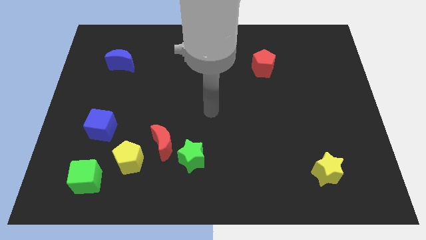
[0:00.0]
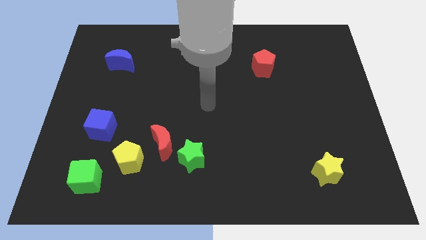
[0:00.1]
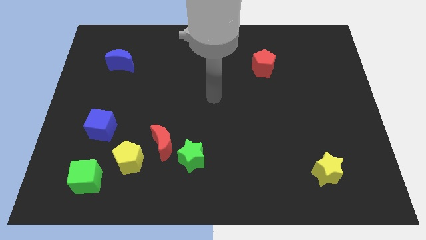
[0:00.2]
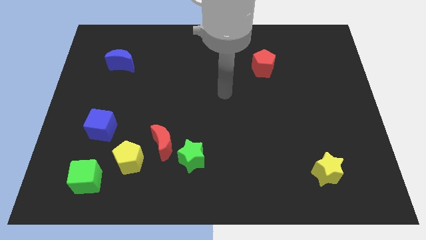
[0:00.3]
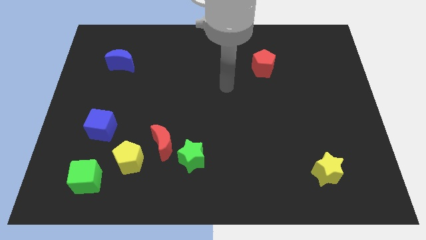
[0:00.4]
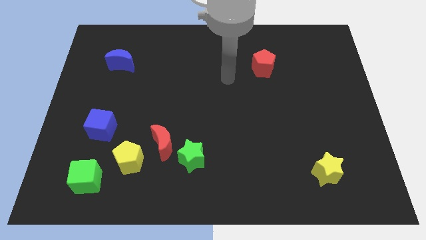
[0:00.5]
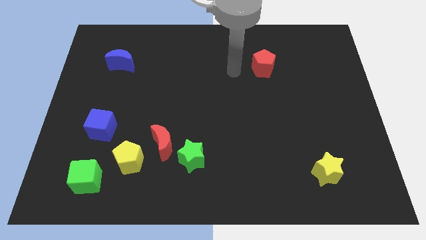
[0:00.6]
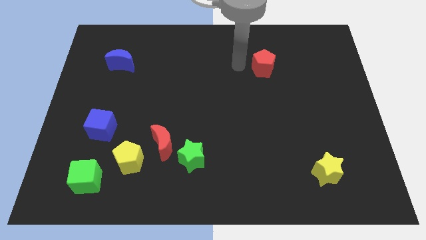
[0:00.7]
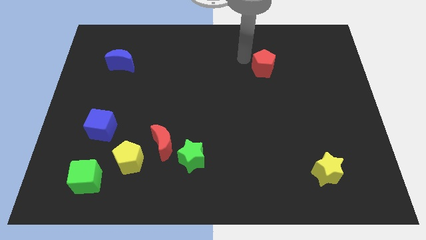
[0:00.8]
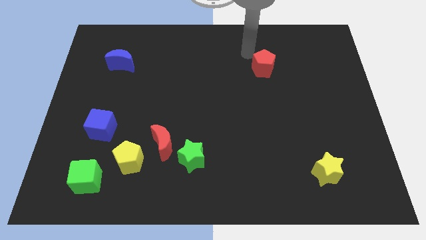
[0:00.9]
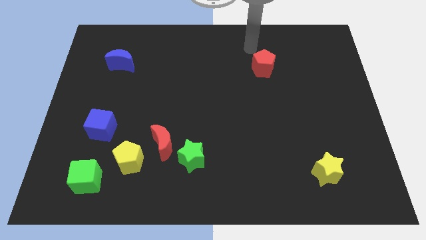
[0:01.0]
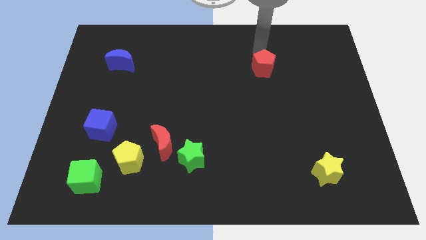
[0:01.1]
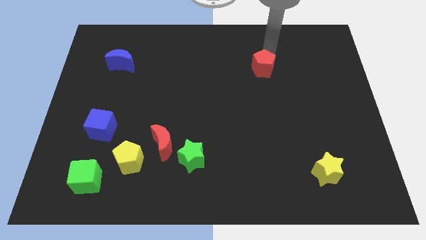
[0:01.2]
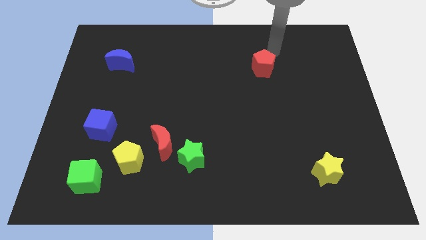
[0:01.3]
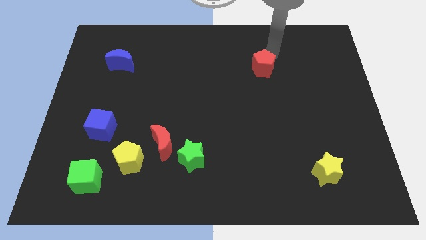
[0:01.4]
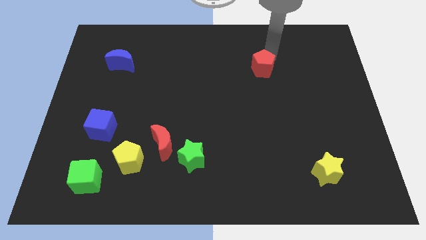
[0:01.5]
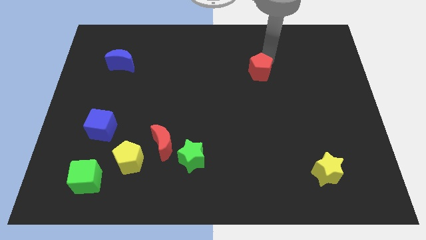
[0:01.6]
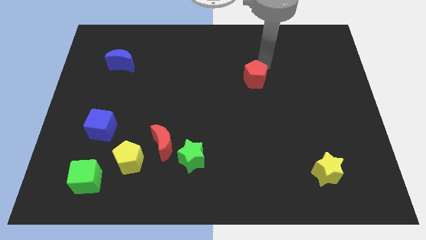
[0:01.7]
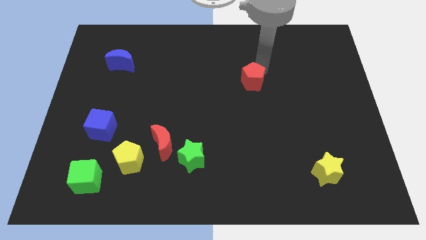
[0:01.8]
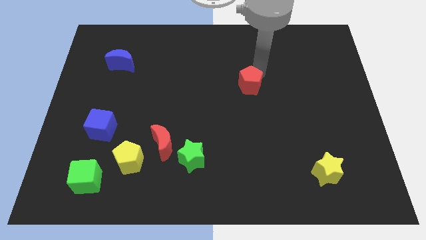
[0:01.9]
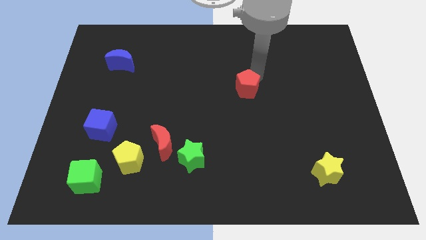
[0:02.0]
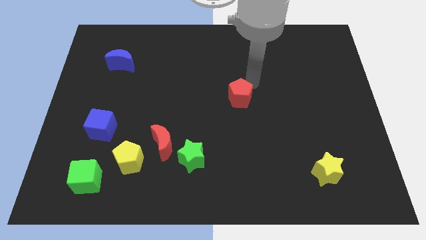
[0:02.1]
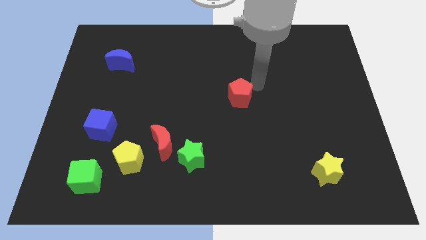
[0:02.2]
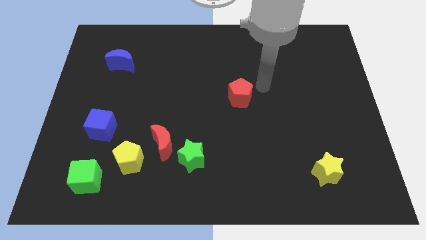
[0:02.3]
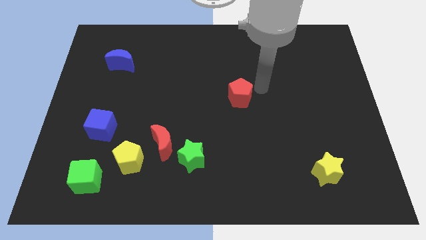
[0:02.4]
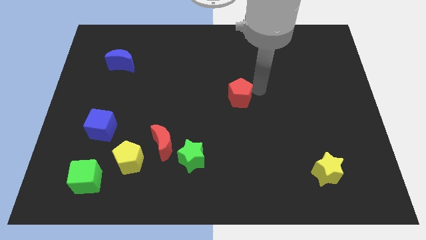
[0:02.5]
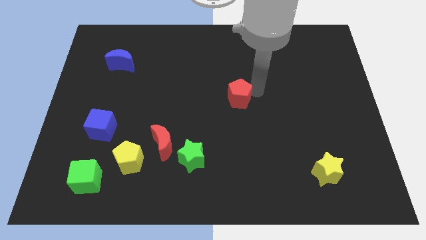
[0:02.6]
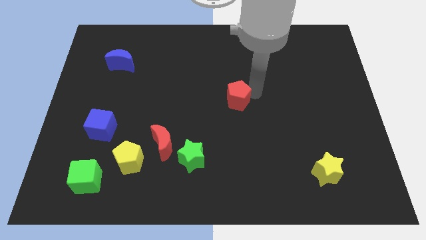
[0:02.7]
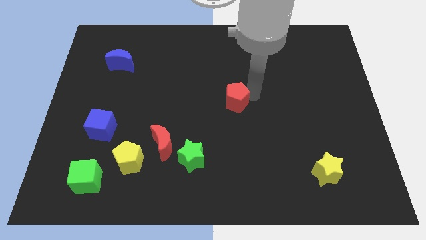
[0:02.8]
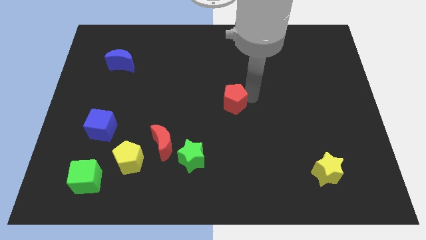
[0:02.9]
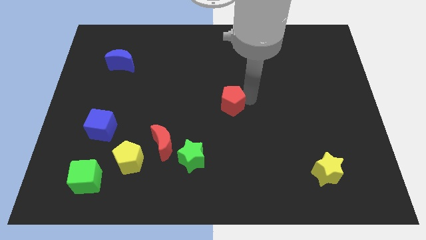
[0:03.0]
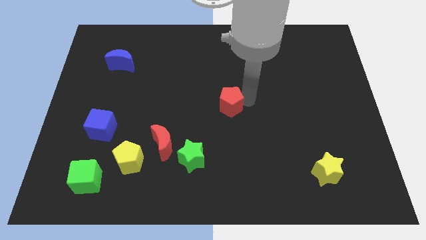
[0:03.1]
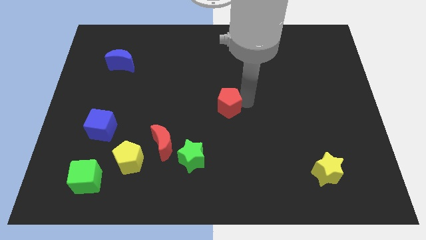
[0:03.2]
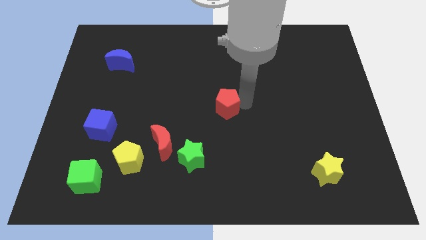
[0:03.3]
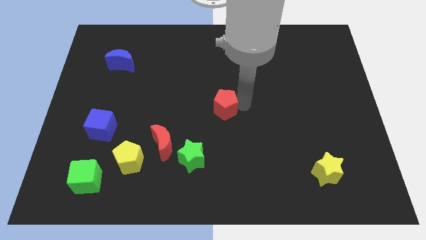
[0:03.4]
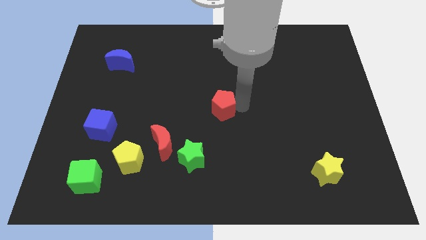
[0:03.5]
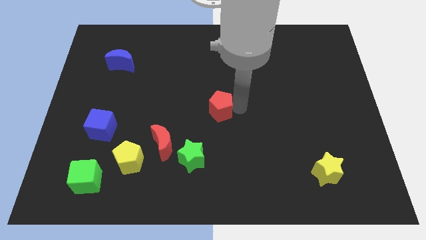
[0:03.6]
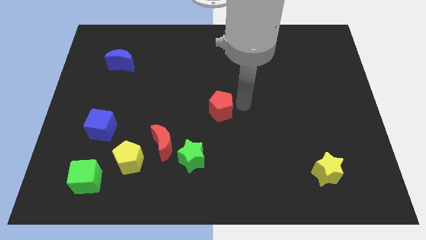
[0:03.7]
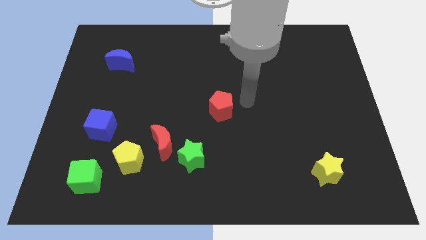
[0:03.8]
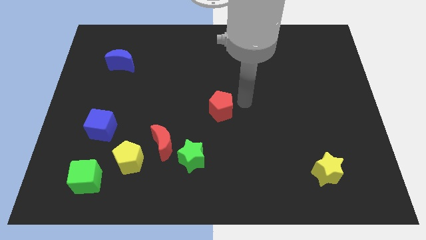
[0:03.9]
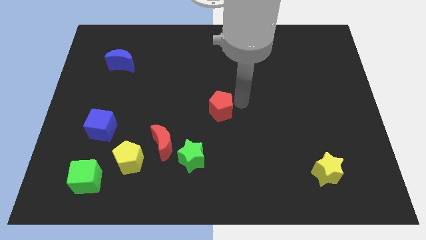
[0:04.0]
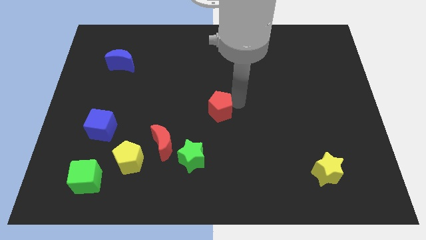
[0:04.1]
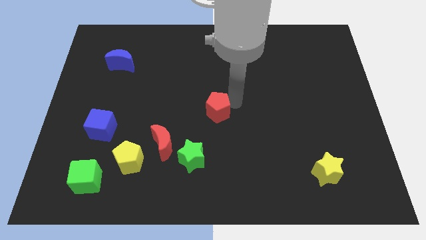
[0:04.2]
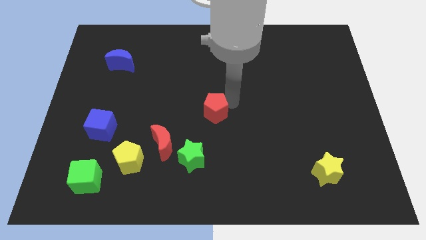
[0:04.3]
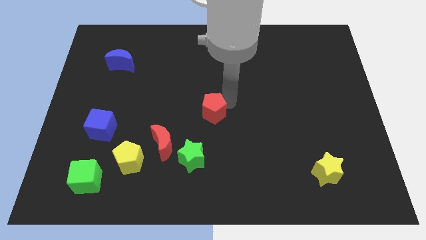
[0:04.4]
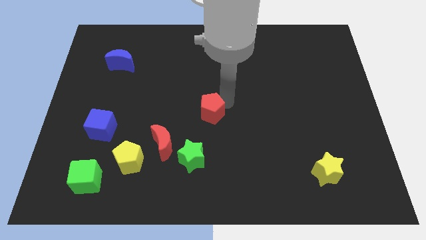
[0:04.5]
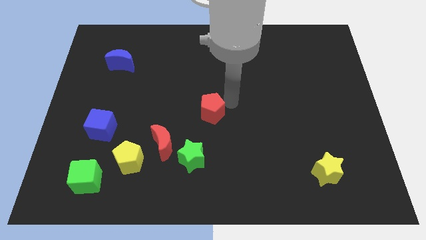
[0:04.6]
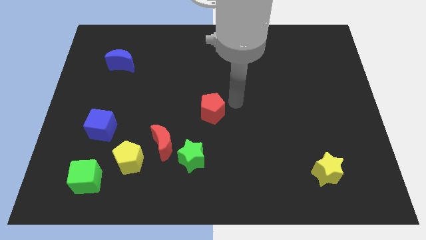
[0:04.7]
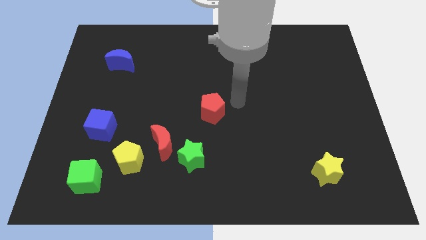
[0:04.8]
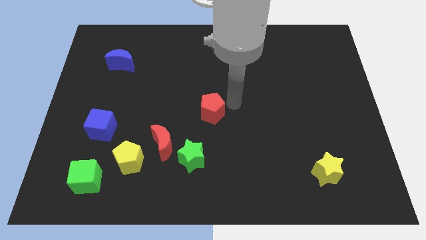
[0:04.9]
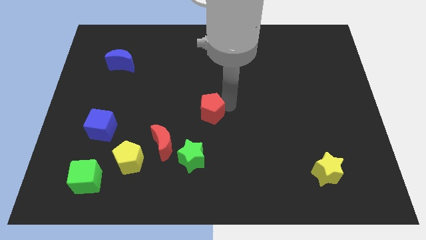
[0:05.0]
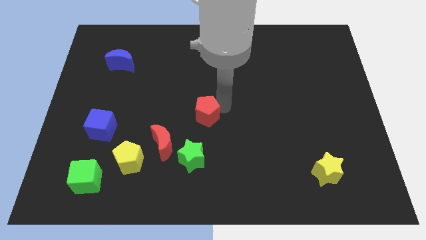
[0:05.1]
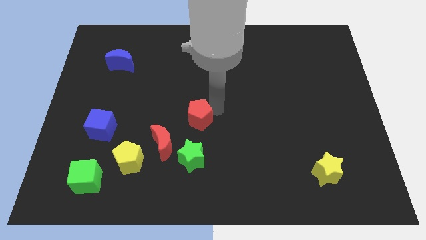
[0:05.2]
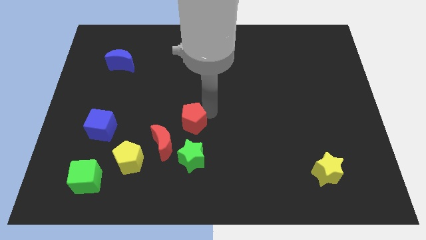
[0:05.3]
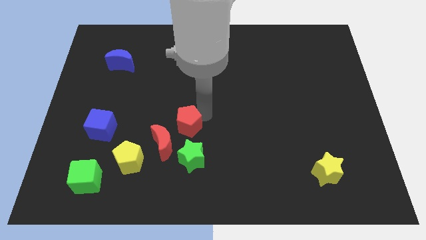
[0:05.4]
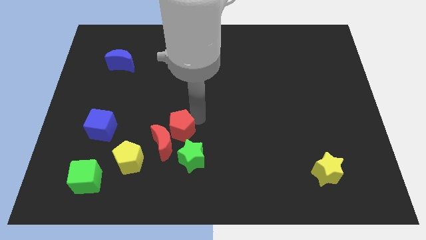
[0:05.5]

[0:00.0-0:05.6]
move the red pentagon towards the red moon

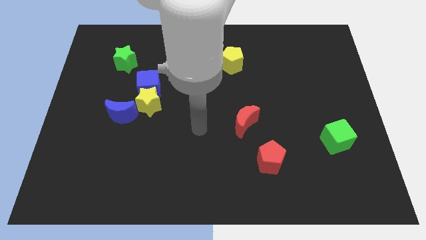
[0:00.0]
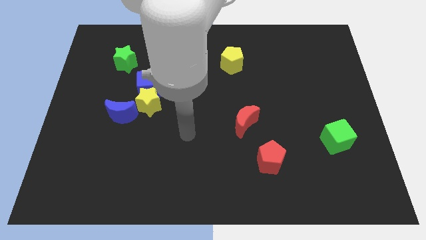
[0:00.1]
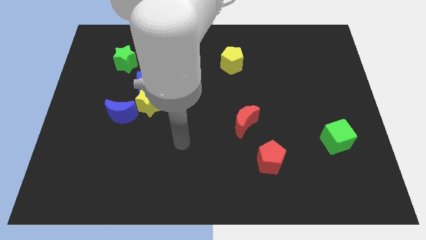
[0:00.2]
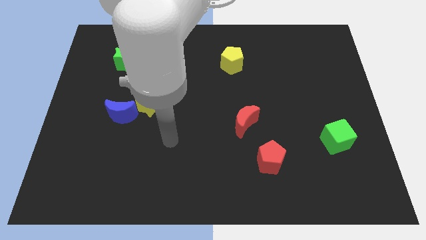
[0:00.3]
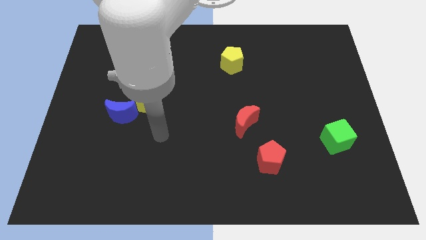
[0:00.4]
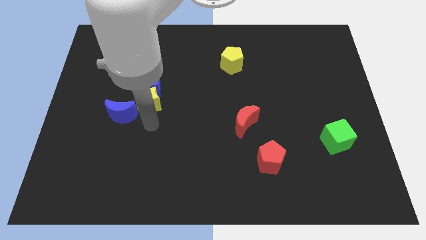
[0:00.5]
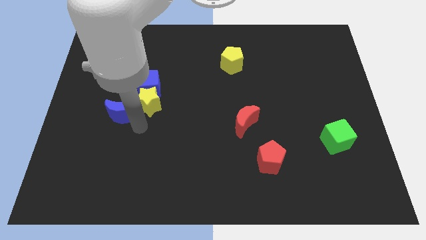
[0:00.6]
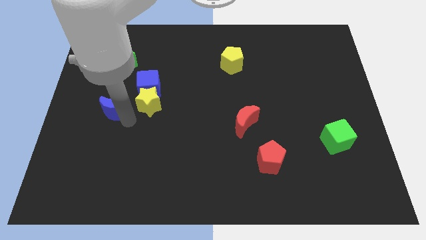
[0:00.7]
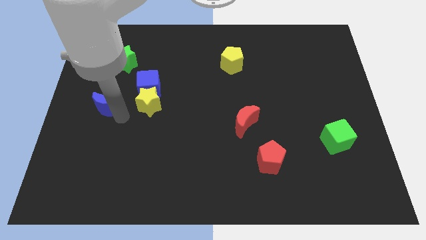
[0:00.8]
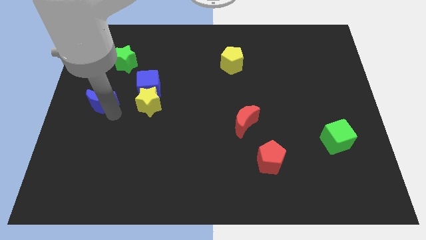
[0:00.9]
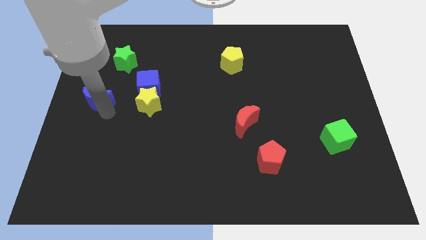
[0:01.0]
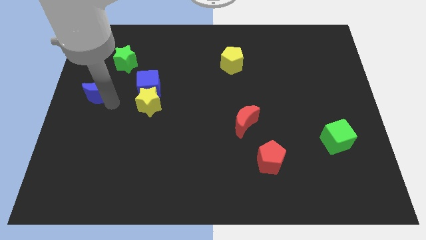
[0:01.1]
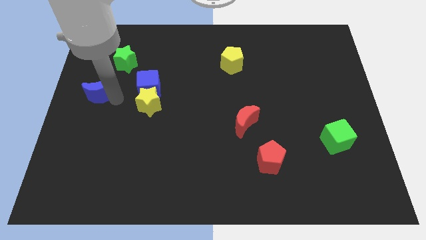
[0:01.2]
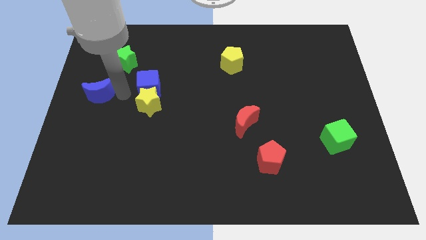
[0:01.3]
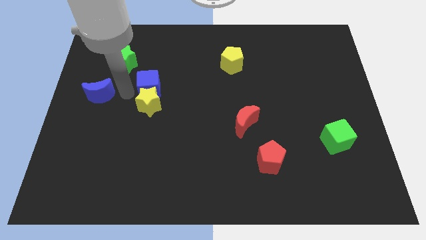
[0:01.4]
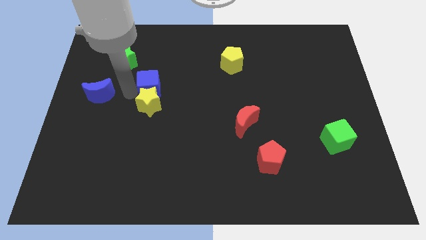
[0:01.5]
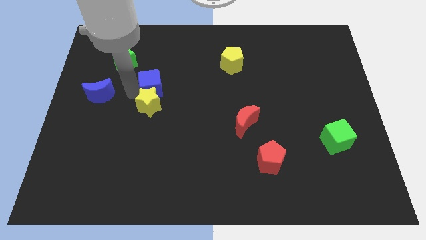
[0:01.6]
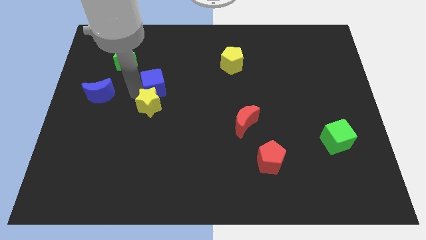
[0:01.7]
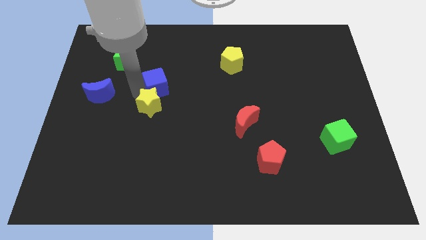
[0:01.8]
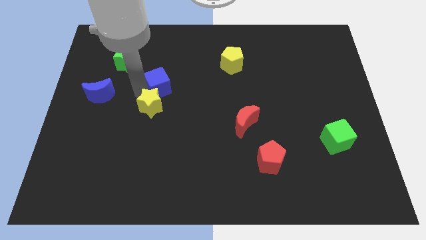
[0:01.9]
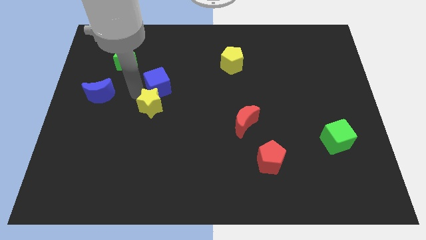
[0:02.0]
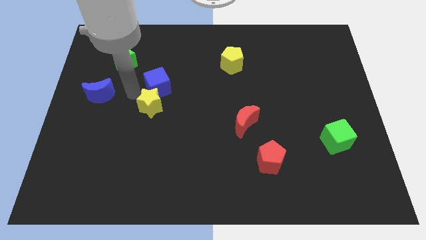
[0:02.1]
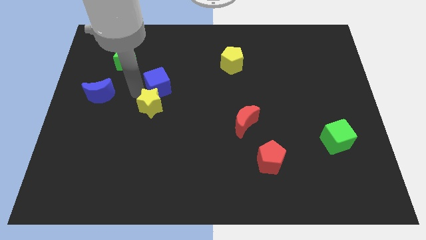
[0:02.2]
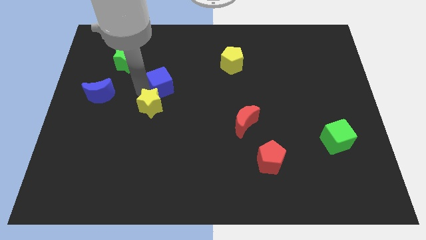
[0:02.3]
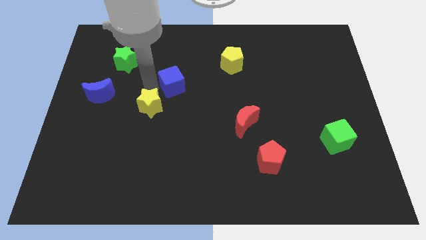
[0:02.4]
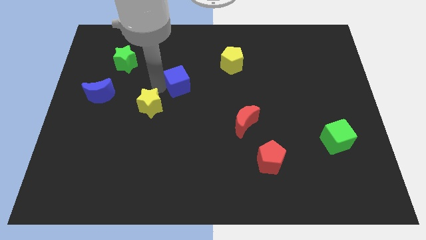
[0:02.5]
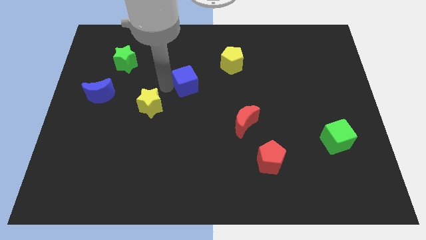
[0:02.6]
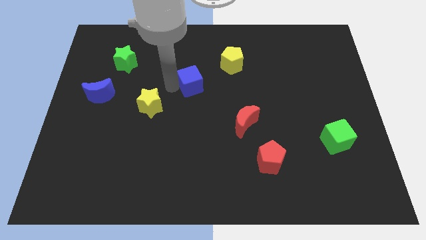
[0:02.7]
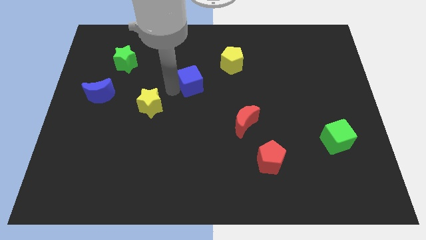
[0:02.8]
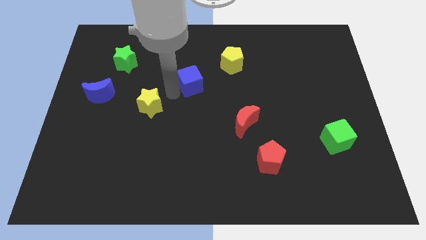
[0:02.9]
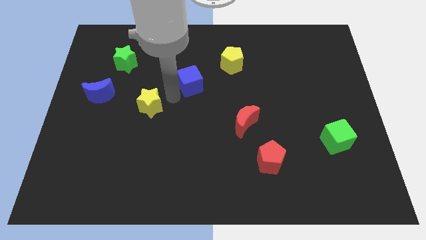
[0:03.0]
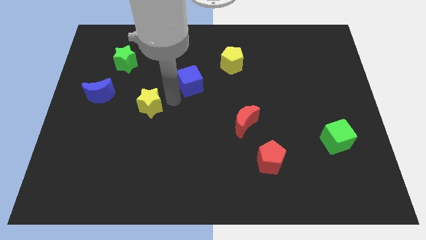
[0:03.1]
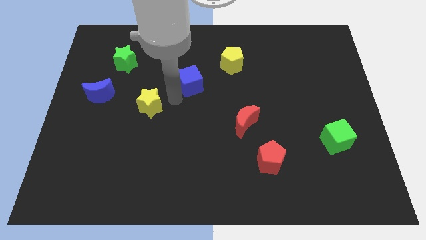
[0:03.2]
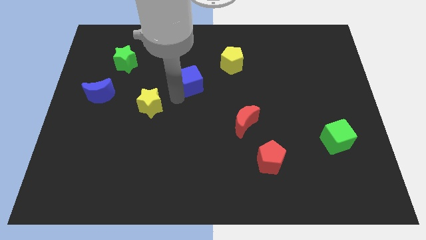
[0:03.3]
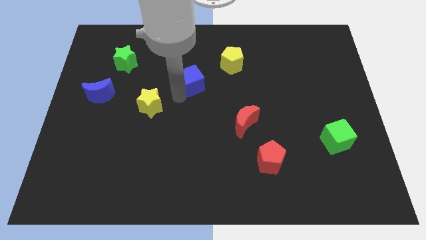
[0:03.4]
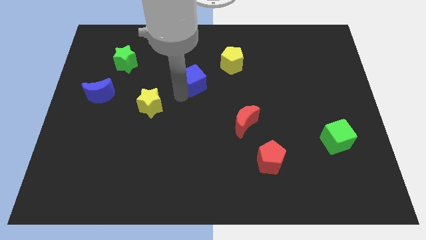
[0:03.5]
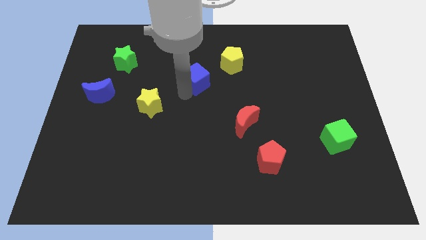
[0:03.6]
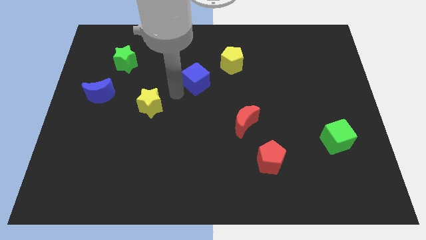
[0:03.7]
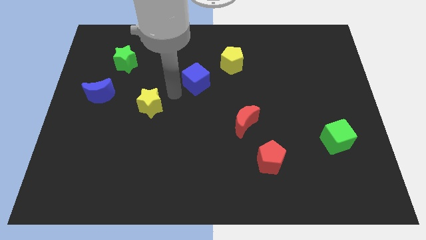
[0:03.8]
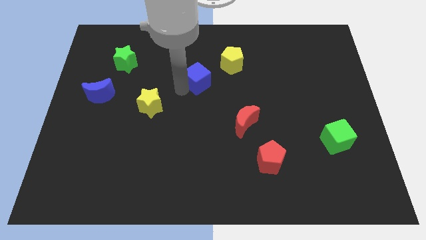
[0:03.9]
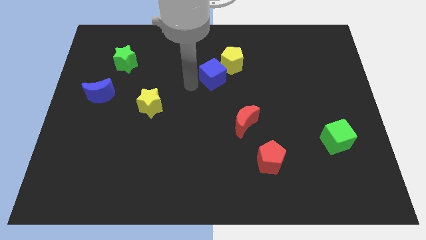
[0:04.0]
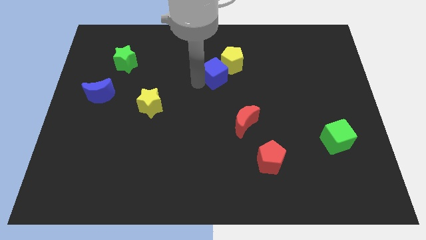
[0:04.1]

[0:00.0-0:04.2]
put the blue cube to the yellow pentagon
